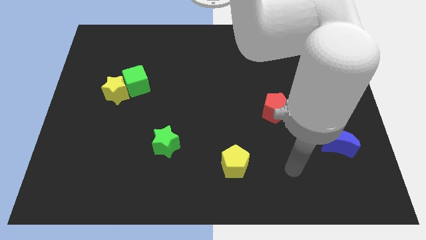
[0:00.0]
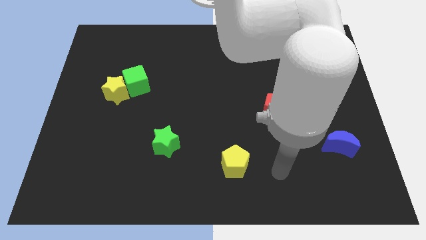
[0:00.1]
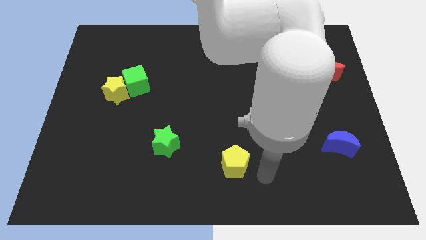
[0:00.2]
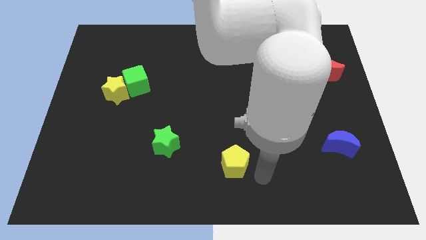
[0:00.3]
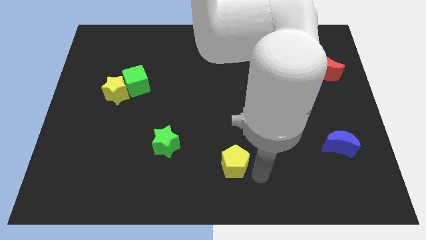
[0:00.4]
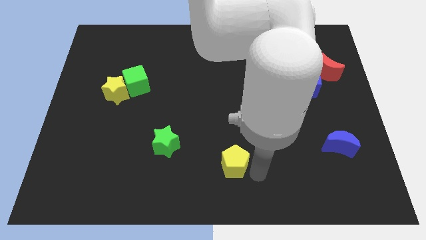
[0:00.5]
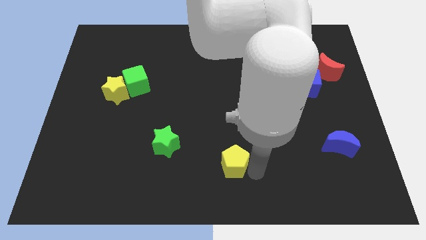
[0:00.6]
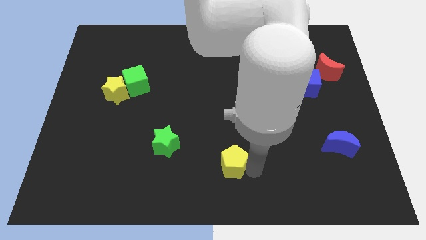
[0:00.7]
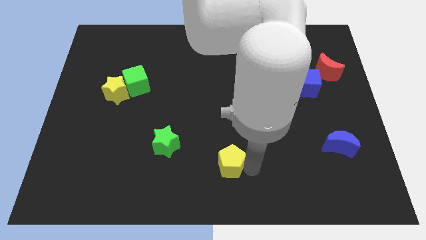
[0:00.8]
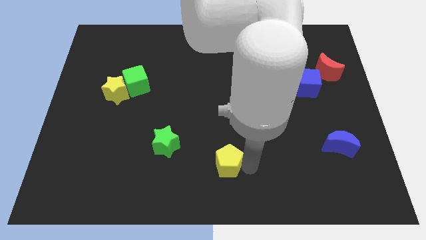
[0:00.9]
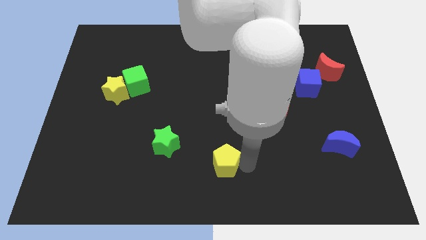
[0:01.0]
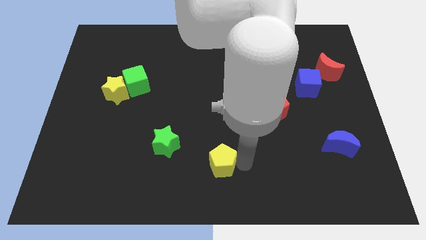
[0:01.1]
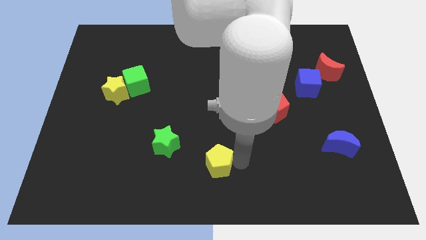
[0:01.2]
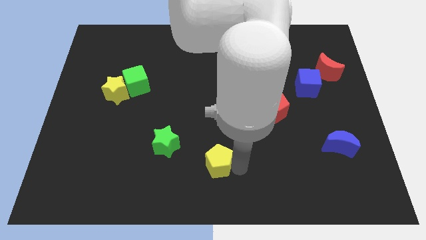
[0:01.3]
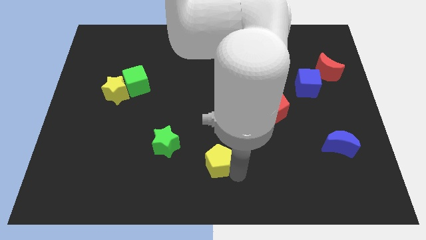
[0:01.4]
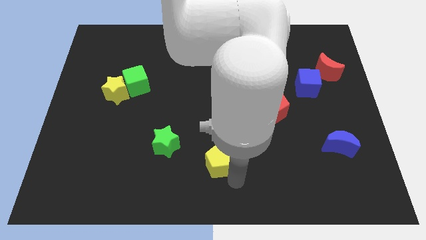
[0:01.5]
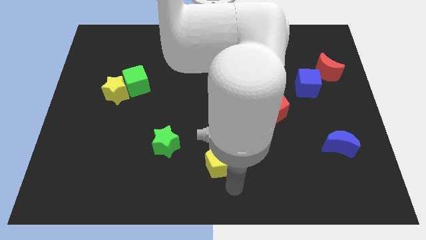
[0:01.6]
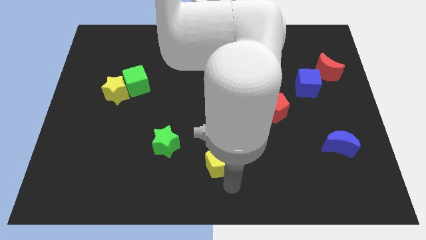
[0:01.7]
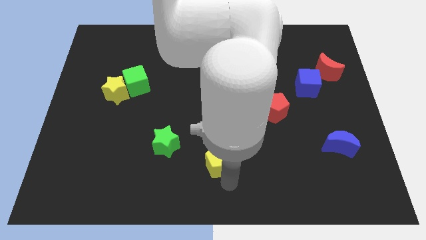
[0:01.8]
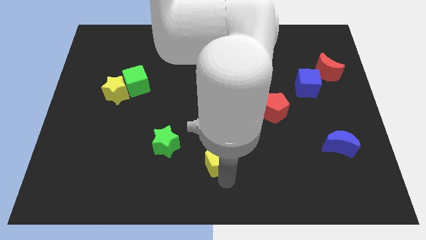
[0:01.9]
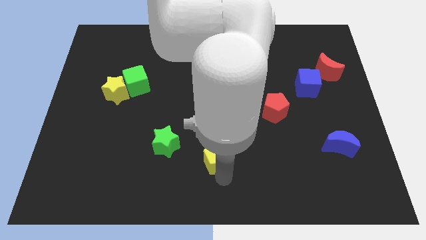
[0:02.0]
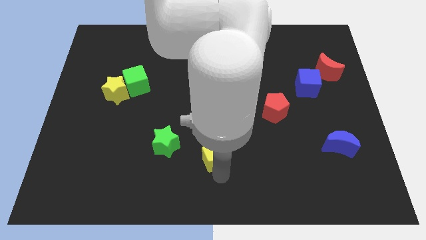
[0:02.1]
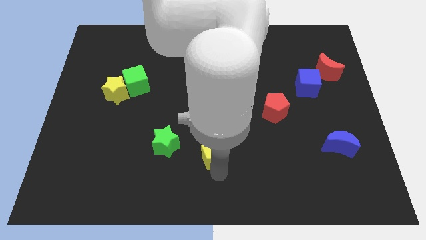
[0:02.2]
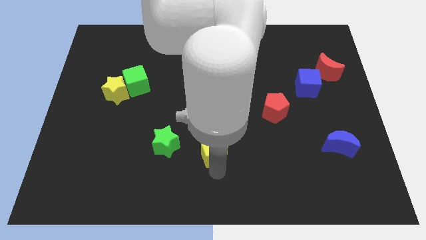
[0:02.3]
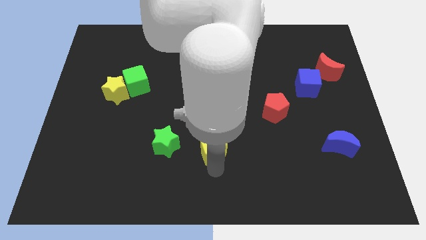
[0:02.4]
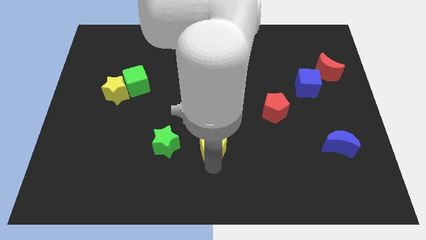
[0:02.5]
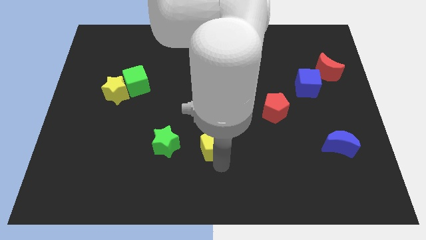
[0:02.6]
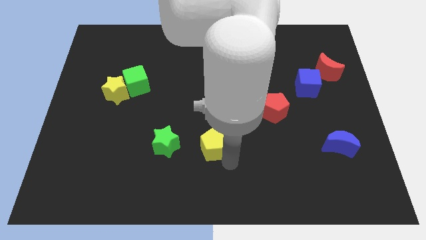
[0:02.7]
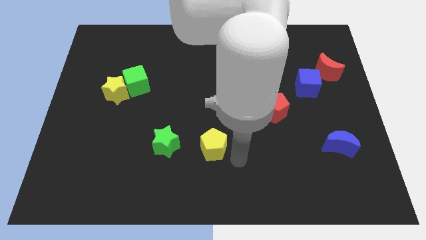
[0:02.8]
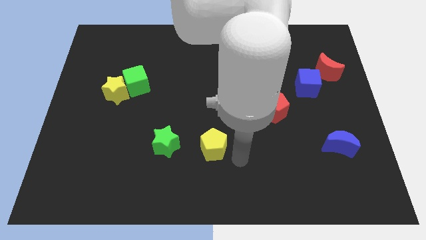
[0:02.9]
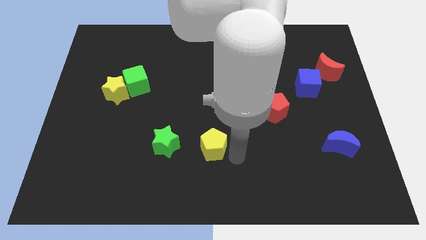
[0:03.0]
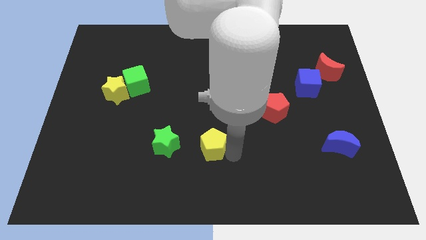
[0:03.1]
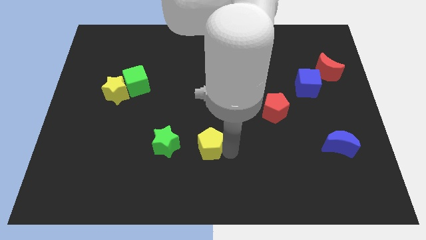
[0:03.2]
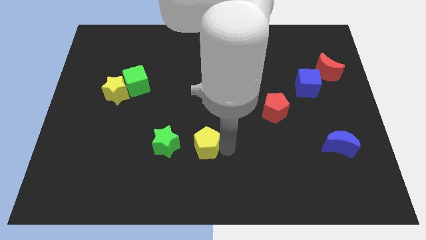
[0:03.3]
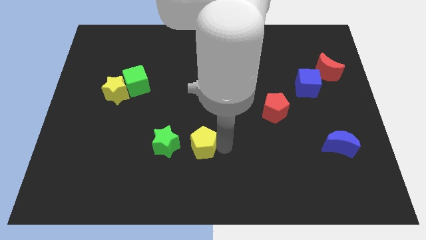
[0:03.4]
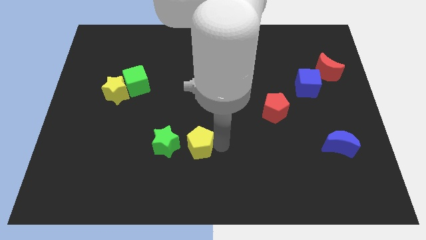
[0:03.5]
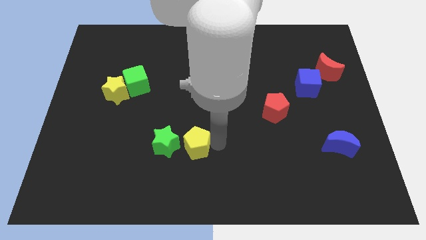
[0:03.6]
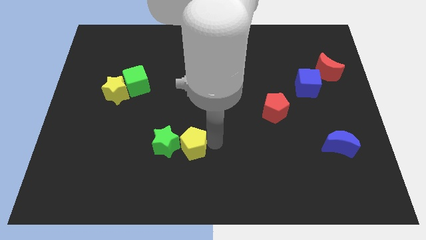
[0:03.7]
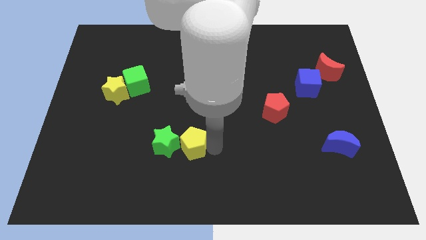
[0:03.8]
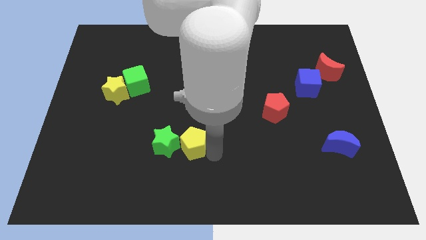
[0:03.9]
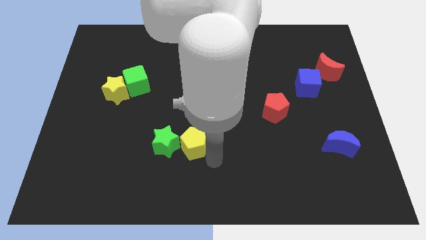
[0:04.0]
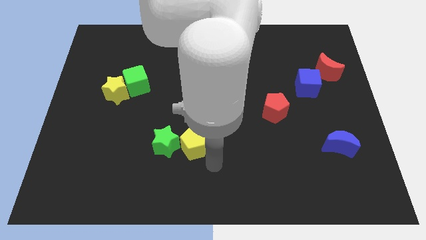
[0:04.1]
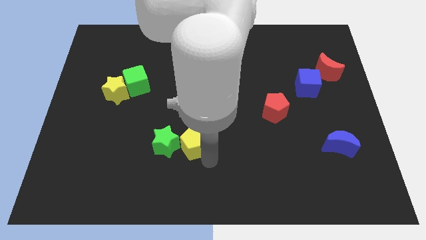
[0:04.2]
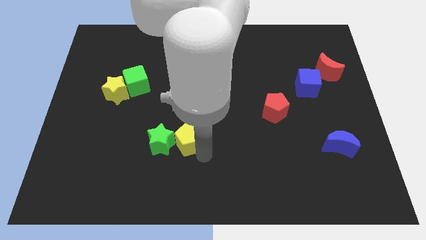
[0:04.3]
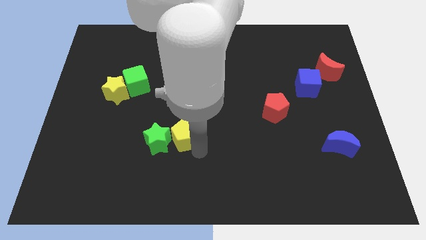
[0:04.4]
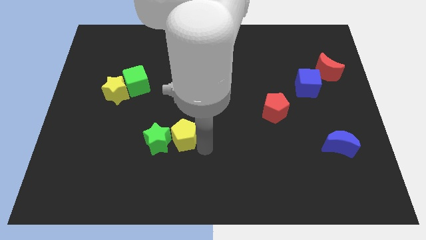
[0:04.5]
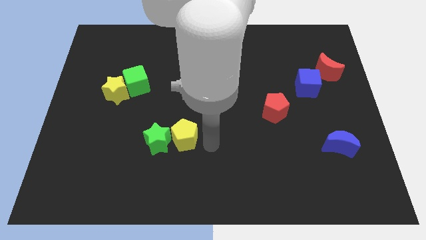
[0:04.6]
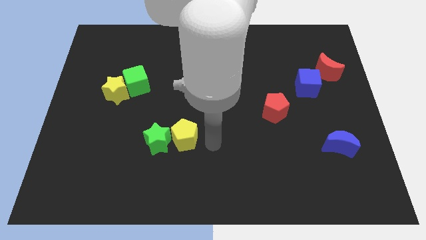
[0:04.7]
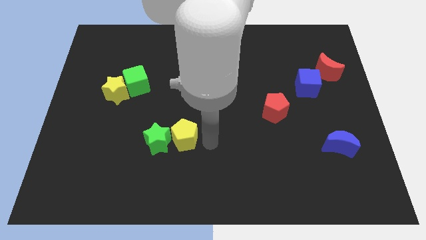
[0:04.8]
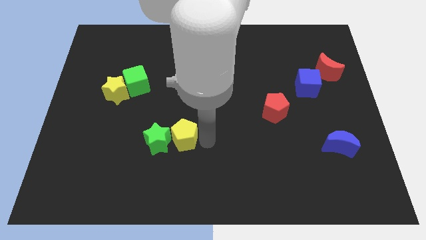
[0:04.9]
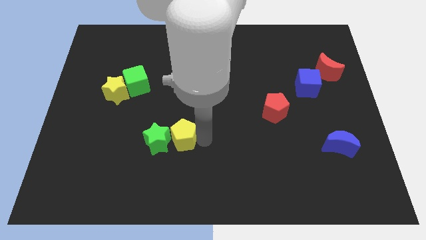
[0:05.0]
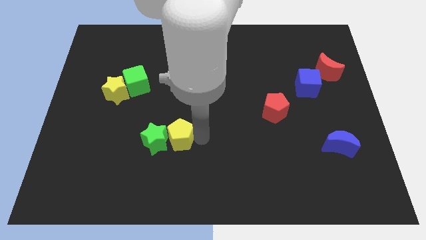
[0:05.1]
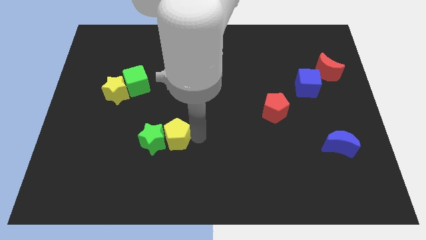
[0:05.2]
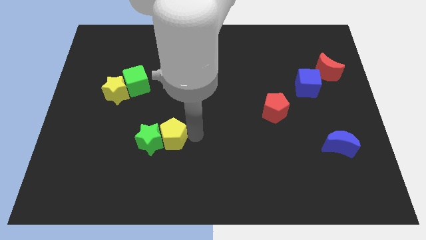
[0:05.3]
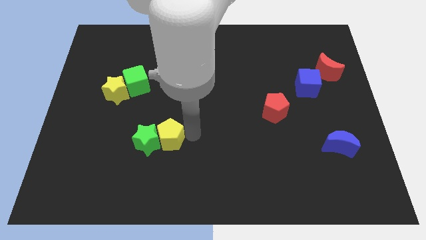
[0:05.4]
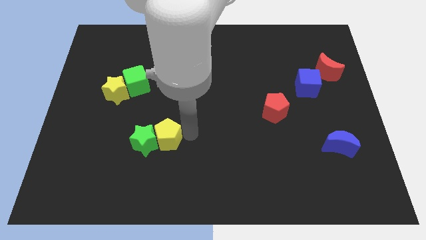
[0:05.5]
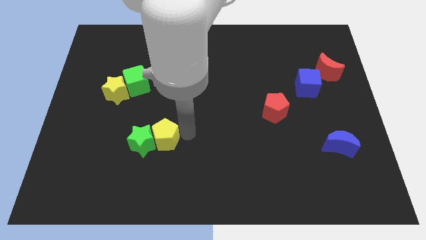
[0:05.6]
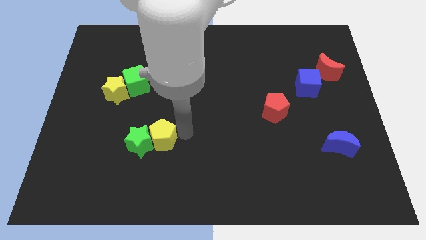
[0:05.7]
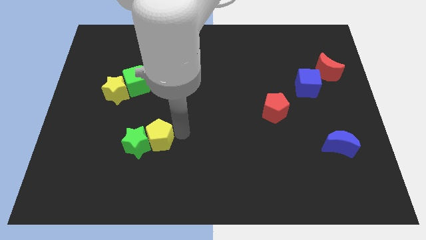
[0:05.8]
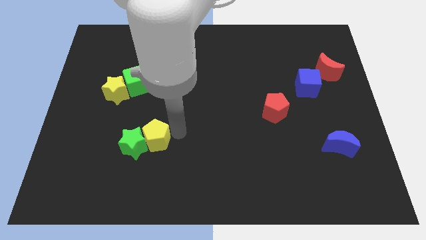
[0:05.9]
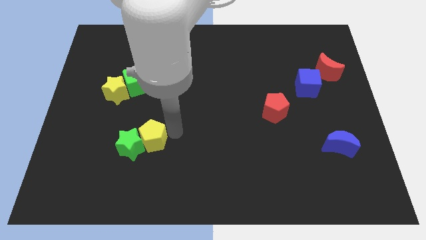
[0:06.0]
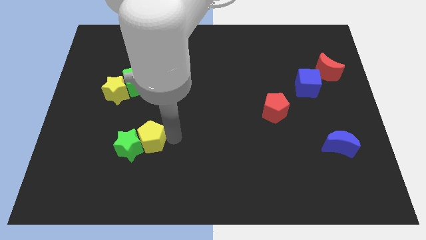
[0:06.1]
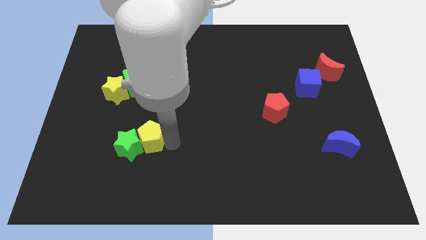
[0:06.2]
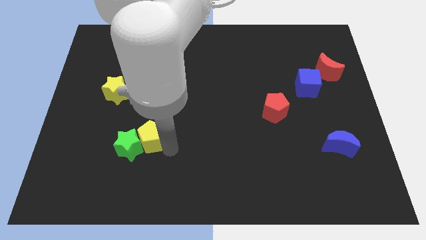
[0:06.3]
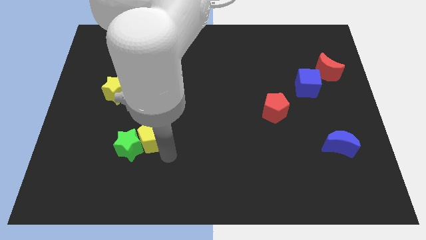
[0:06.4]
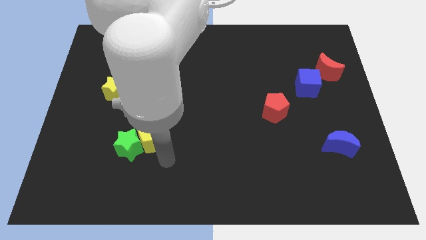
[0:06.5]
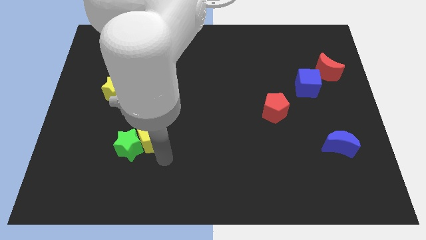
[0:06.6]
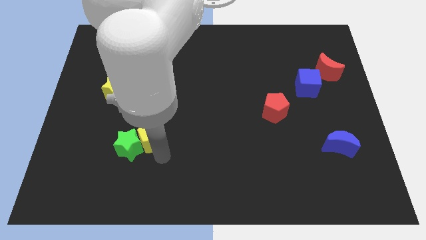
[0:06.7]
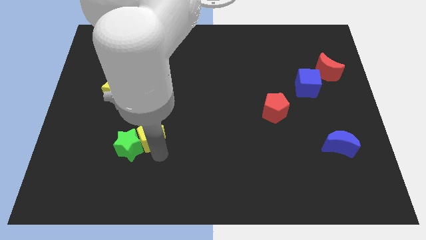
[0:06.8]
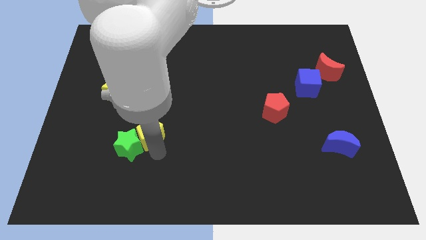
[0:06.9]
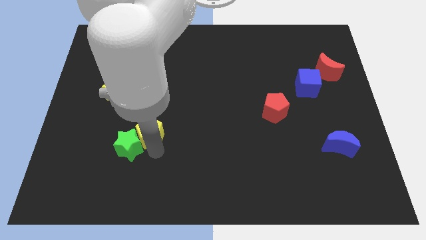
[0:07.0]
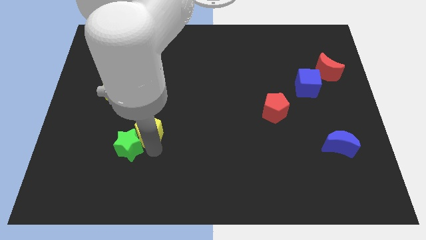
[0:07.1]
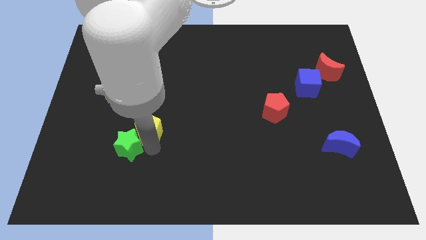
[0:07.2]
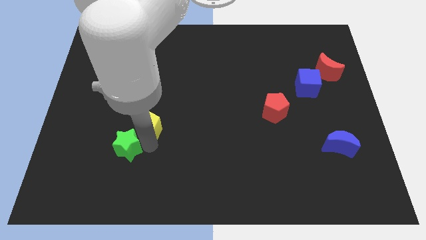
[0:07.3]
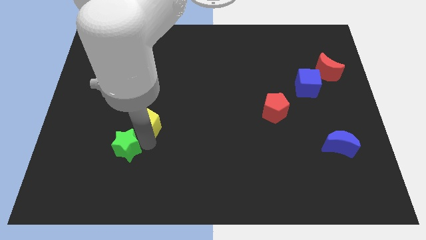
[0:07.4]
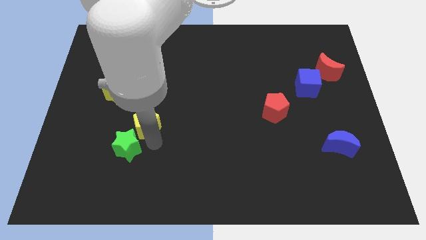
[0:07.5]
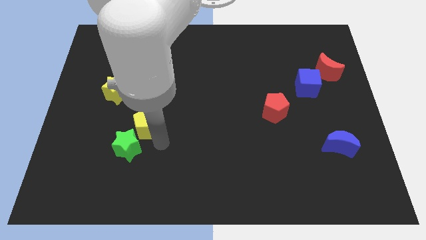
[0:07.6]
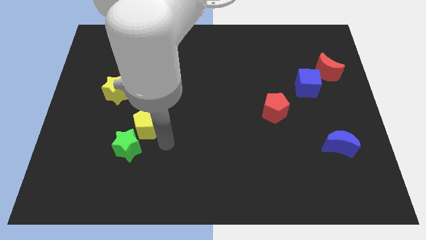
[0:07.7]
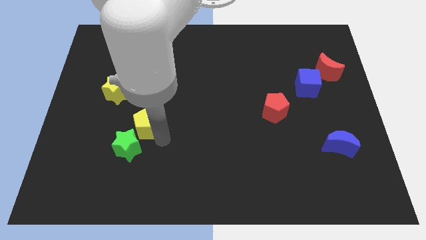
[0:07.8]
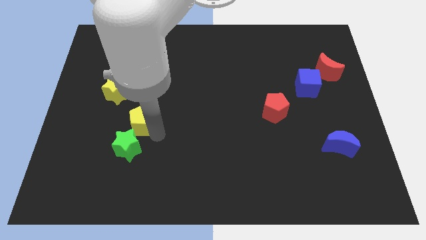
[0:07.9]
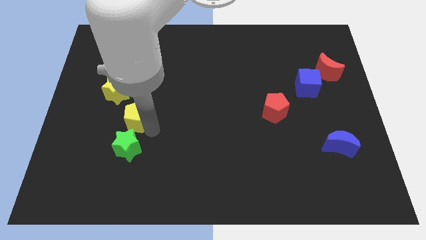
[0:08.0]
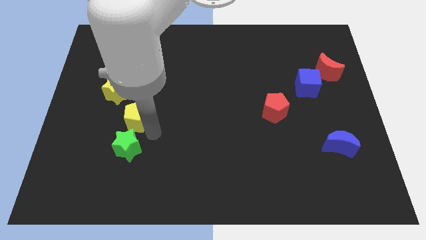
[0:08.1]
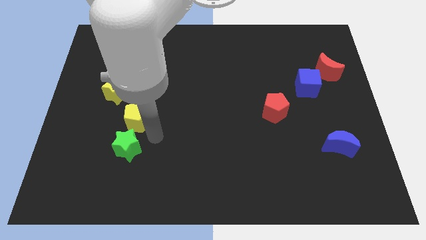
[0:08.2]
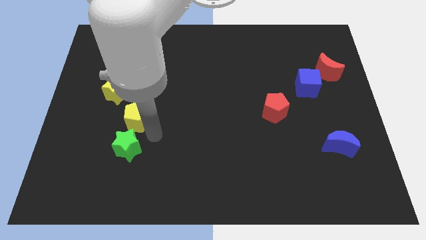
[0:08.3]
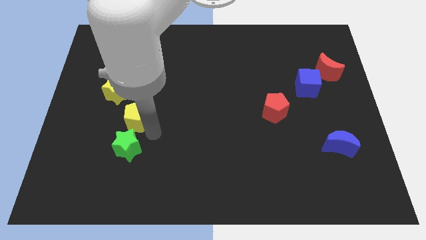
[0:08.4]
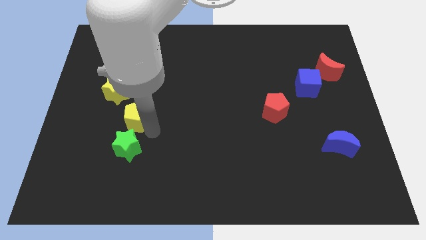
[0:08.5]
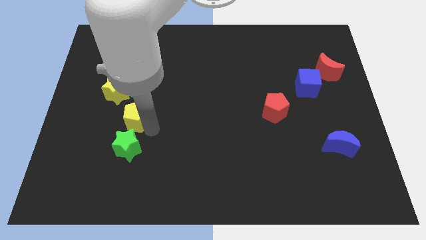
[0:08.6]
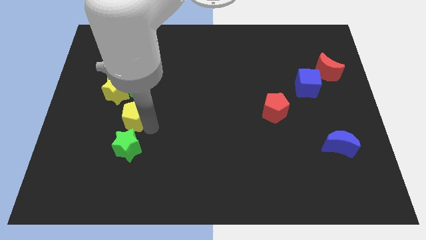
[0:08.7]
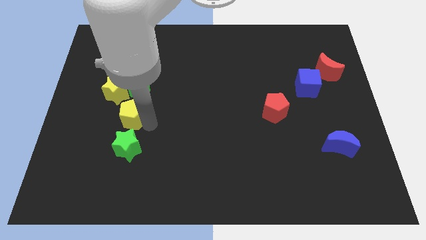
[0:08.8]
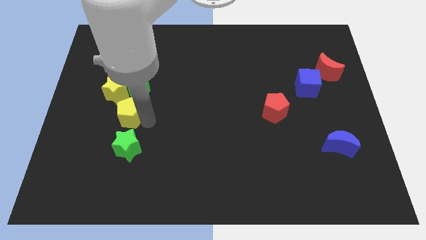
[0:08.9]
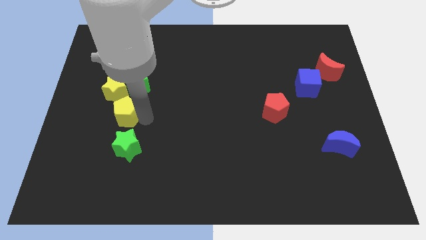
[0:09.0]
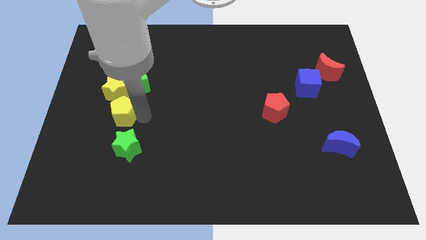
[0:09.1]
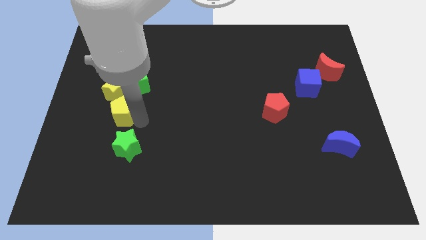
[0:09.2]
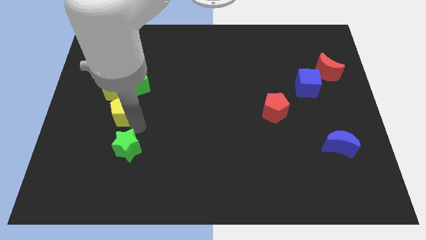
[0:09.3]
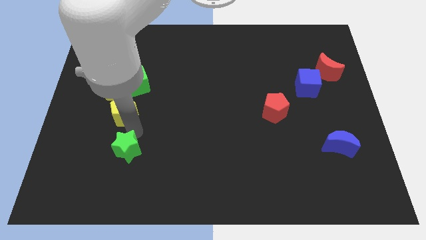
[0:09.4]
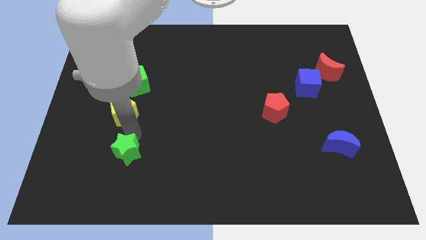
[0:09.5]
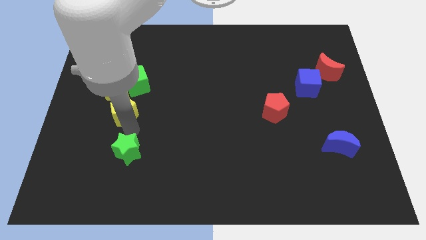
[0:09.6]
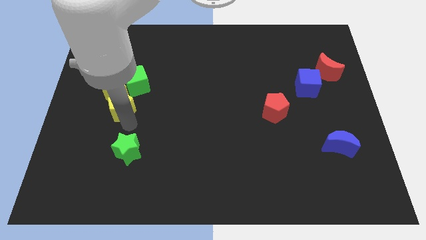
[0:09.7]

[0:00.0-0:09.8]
move the yellow pentagon close to the yellow star
